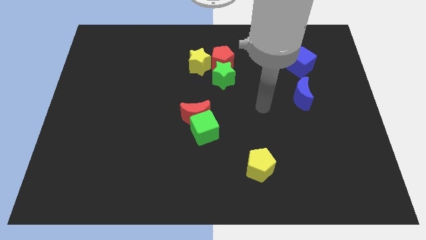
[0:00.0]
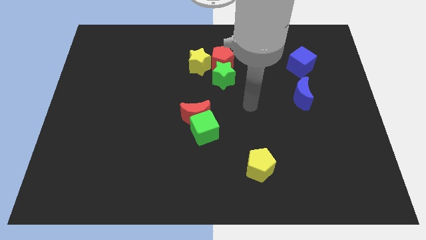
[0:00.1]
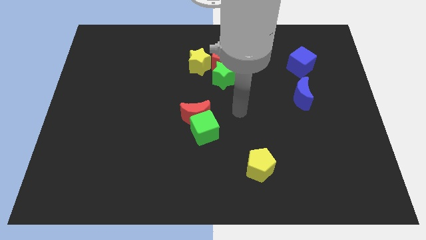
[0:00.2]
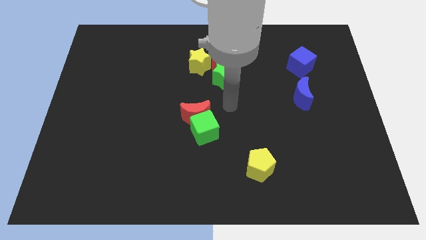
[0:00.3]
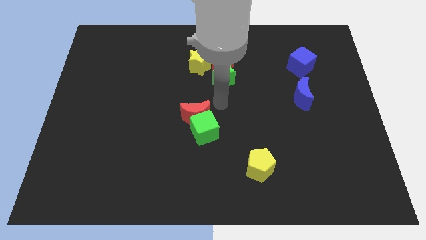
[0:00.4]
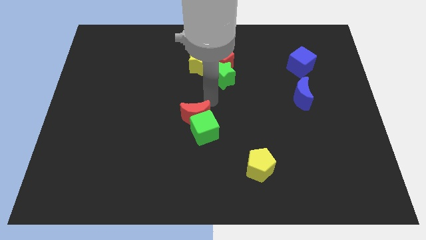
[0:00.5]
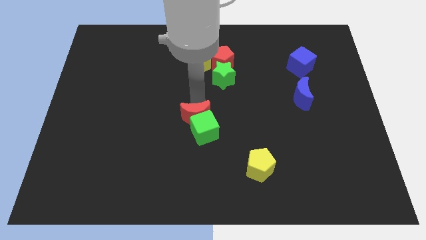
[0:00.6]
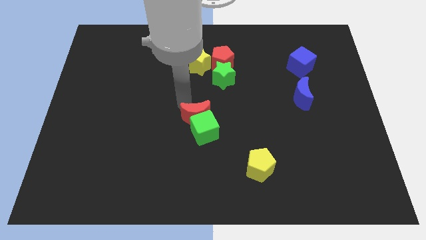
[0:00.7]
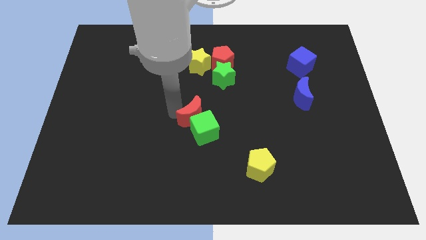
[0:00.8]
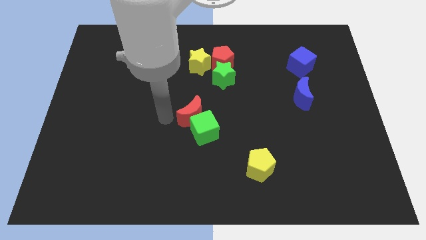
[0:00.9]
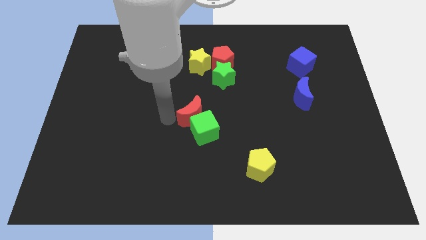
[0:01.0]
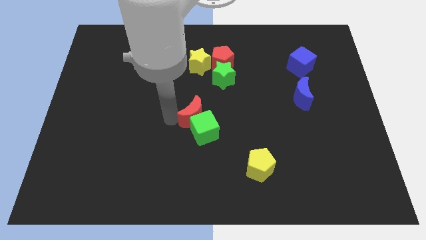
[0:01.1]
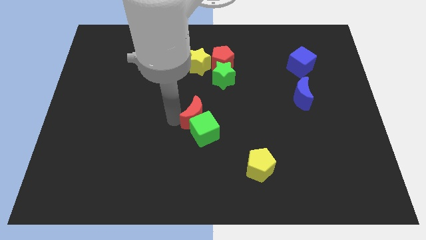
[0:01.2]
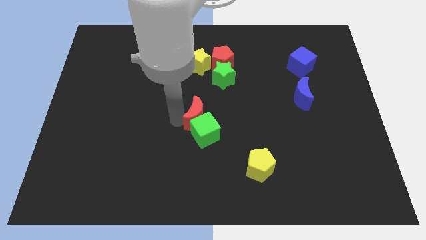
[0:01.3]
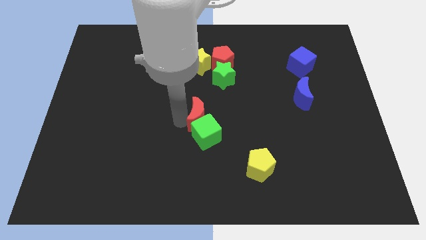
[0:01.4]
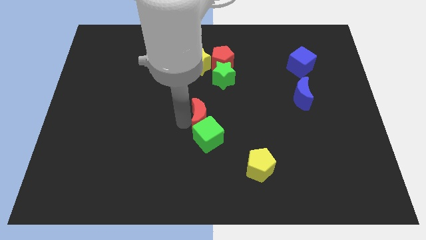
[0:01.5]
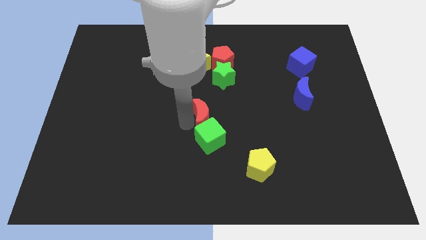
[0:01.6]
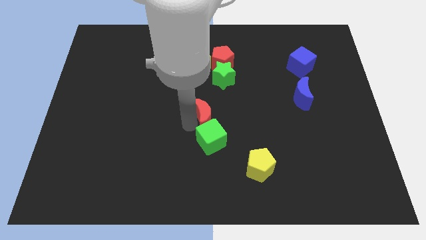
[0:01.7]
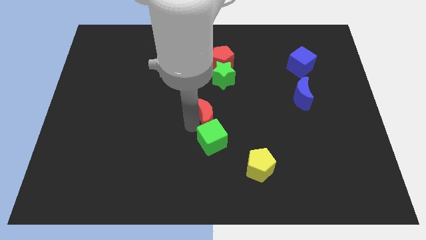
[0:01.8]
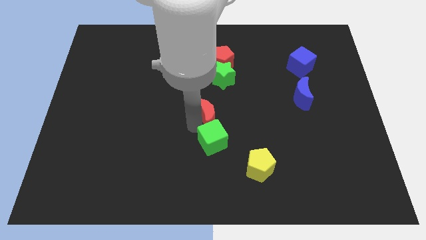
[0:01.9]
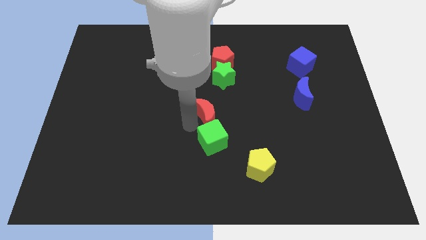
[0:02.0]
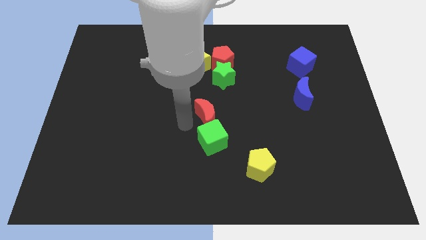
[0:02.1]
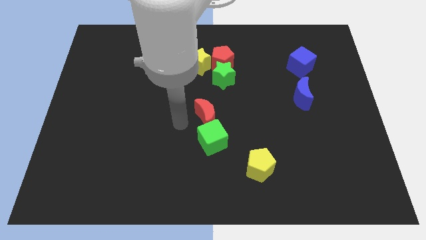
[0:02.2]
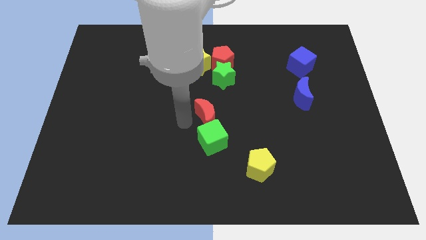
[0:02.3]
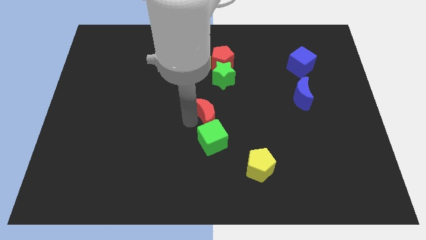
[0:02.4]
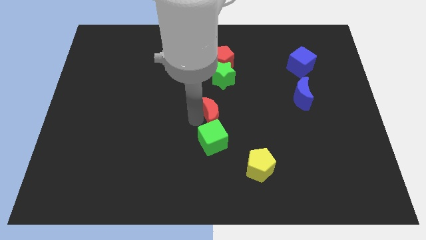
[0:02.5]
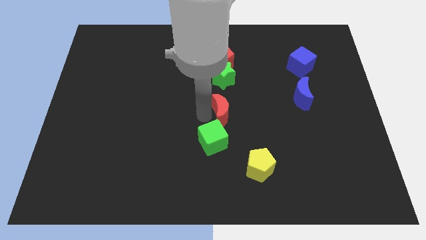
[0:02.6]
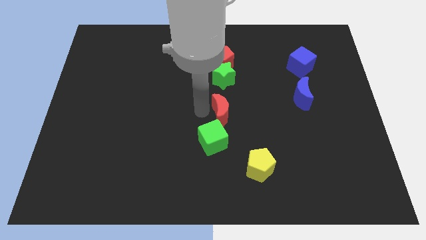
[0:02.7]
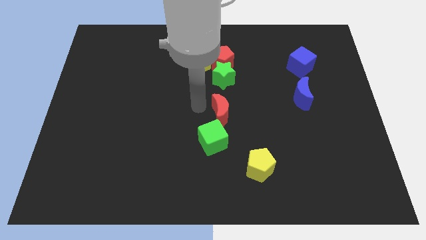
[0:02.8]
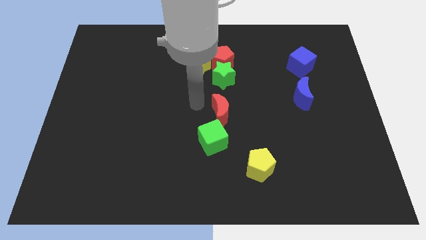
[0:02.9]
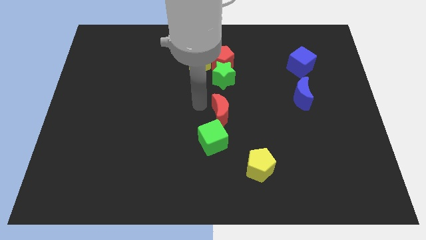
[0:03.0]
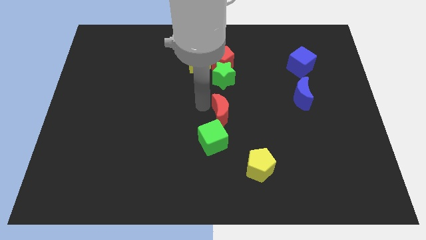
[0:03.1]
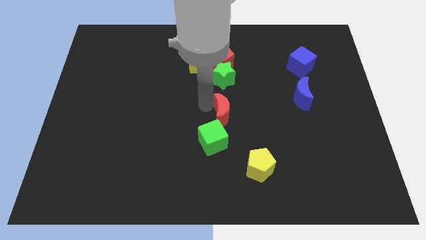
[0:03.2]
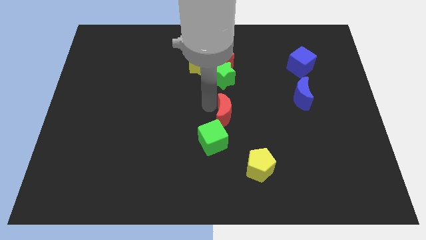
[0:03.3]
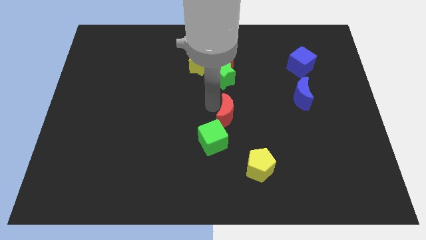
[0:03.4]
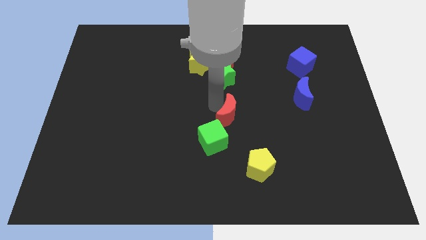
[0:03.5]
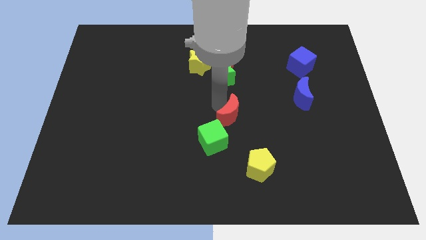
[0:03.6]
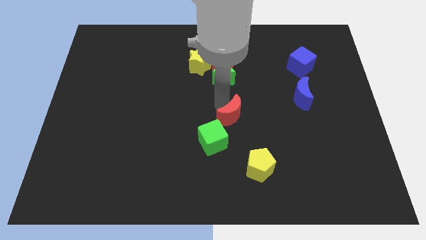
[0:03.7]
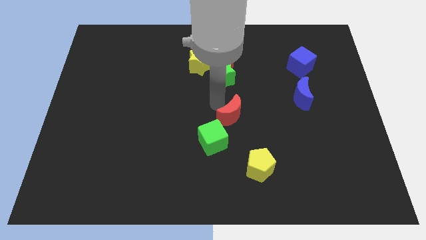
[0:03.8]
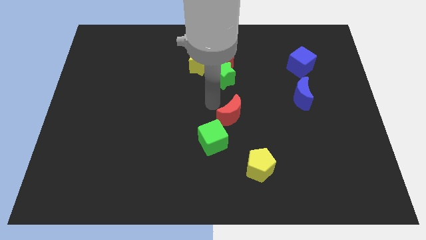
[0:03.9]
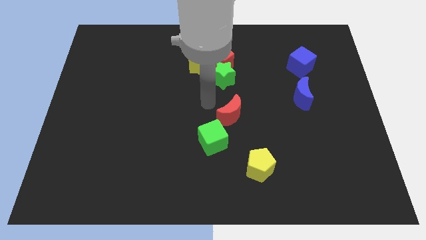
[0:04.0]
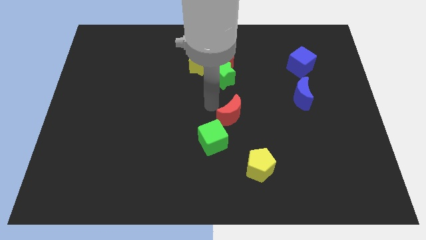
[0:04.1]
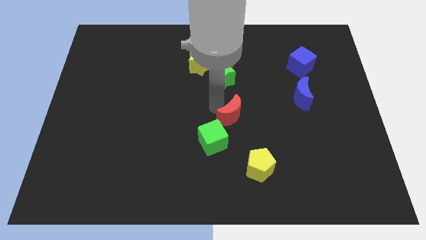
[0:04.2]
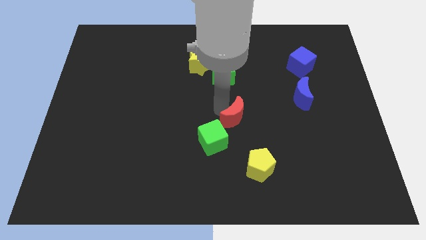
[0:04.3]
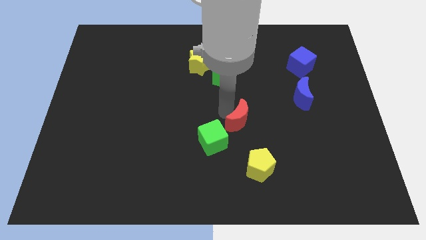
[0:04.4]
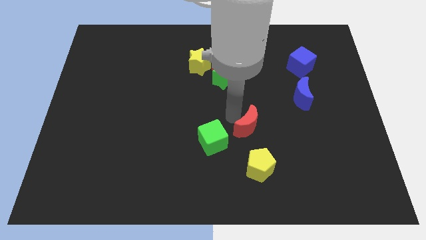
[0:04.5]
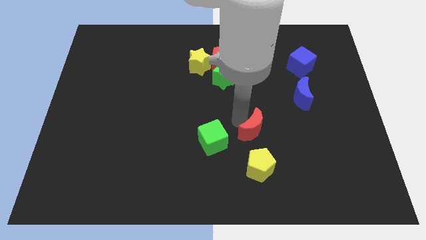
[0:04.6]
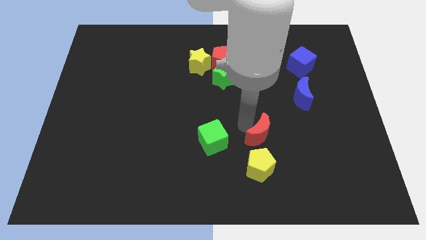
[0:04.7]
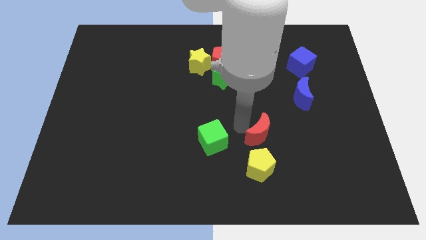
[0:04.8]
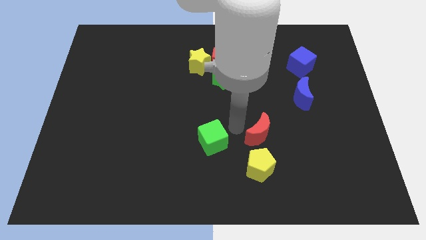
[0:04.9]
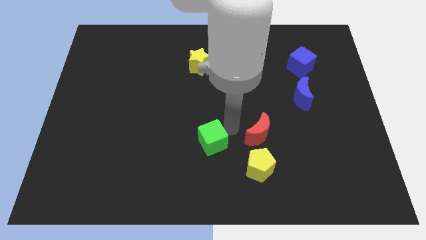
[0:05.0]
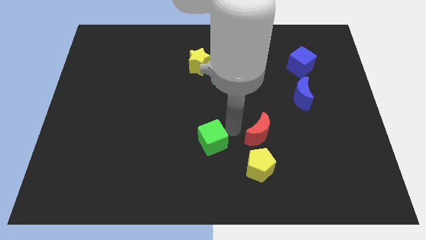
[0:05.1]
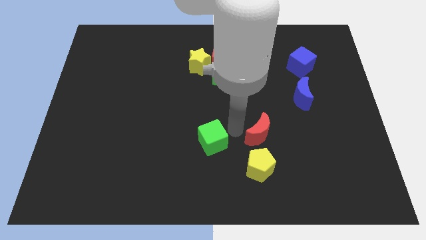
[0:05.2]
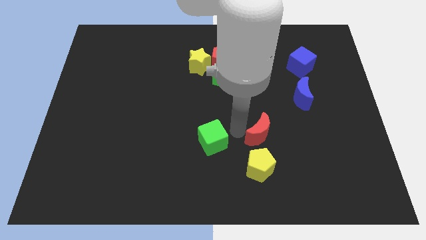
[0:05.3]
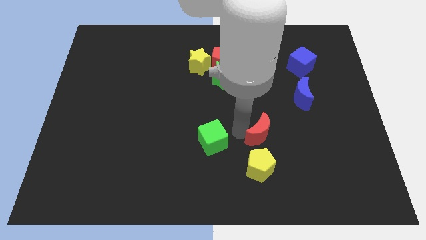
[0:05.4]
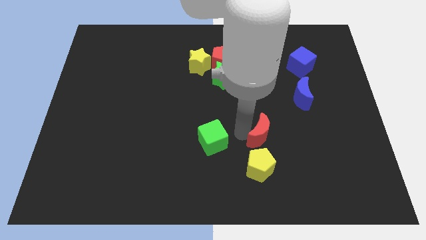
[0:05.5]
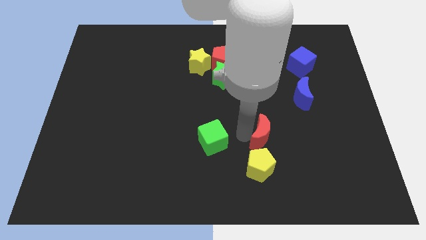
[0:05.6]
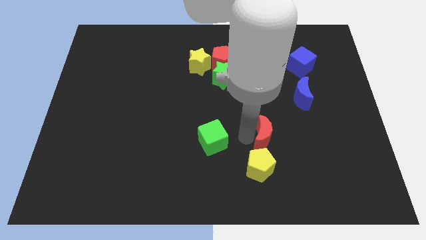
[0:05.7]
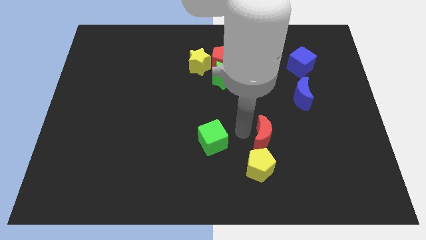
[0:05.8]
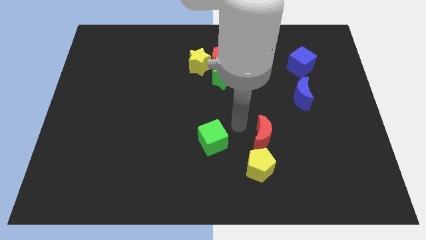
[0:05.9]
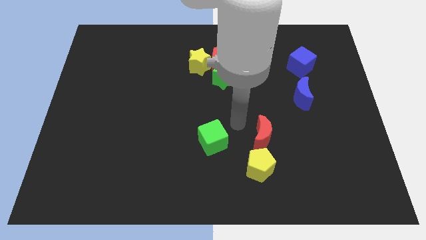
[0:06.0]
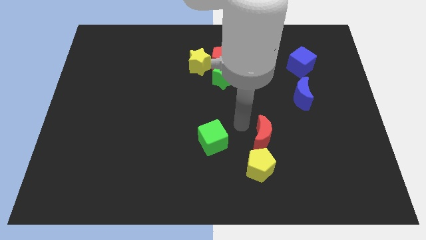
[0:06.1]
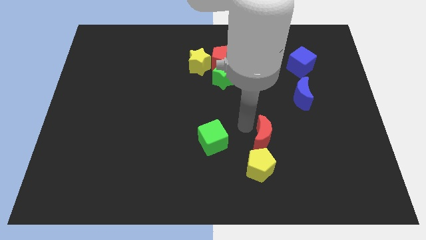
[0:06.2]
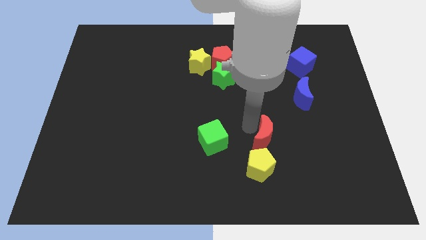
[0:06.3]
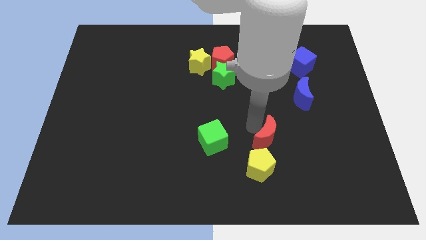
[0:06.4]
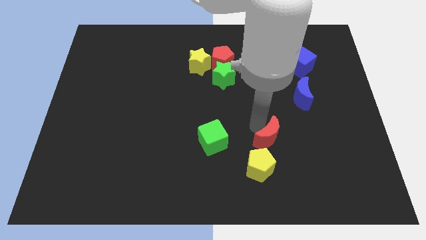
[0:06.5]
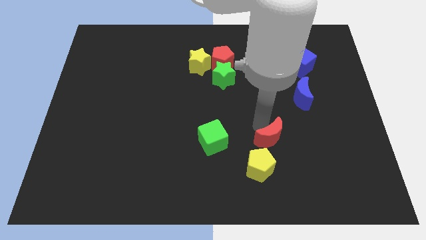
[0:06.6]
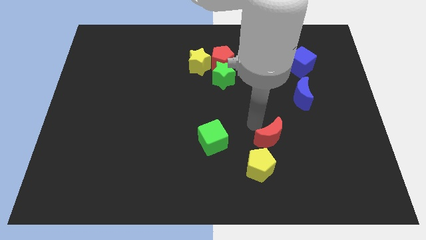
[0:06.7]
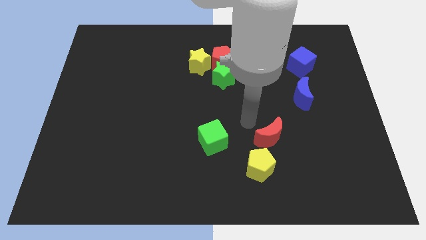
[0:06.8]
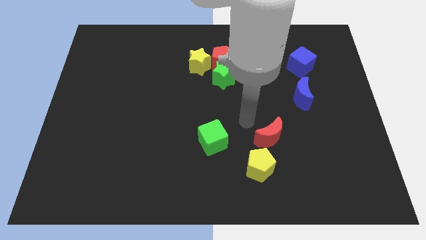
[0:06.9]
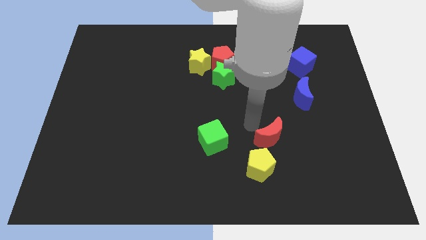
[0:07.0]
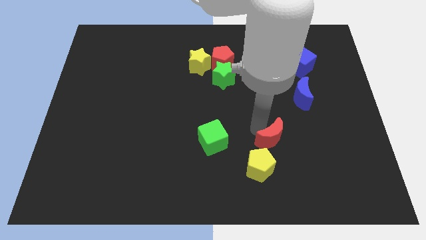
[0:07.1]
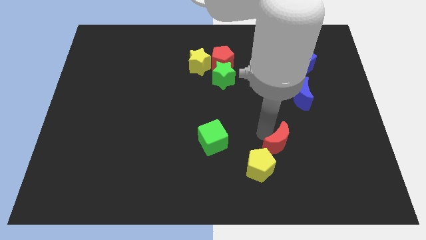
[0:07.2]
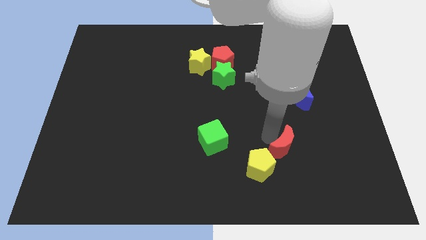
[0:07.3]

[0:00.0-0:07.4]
push the red moon to the right side of the yellow pentagon

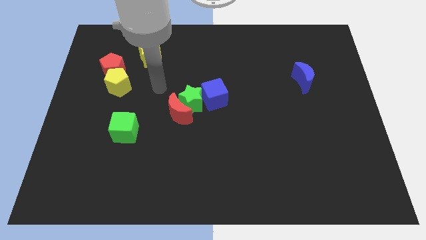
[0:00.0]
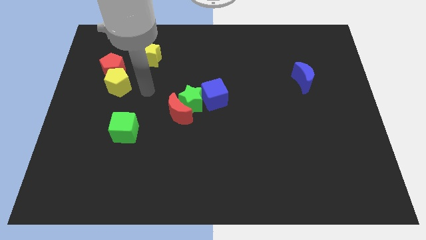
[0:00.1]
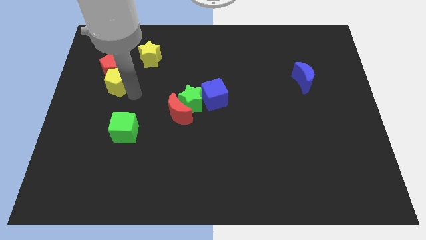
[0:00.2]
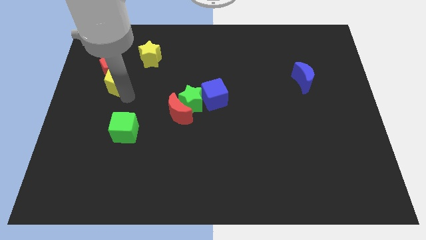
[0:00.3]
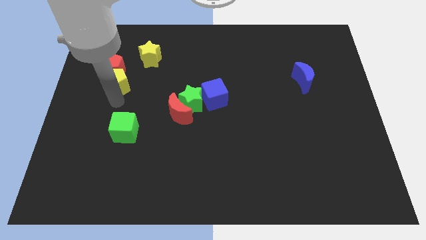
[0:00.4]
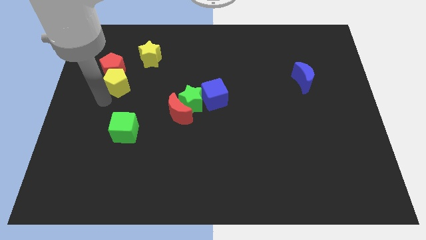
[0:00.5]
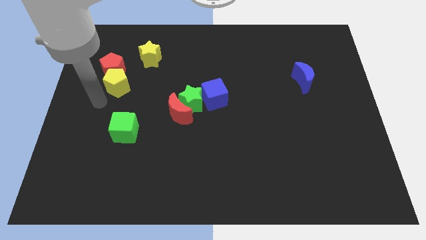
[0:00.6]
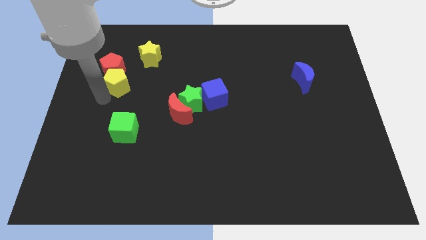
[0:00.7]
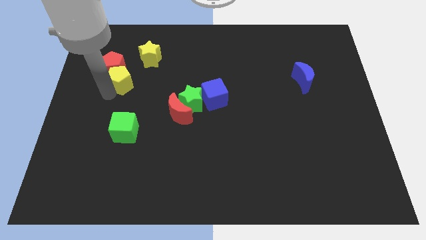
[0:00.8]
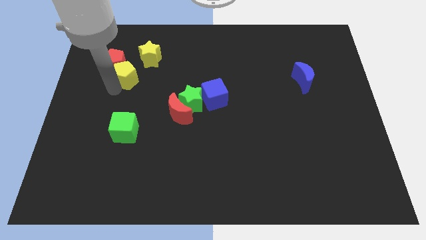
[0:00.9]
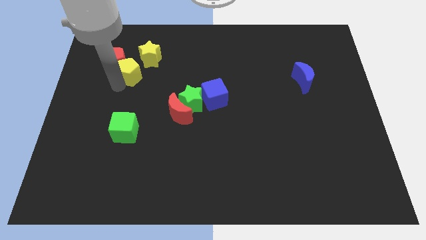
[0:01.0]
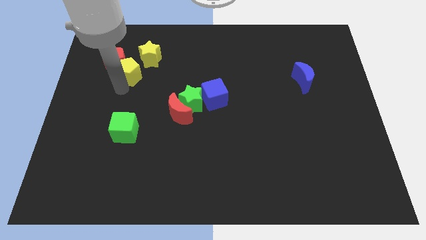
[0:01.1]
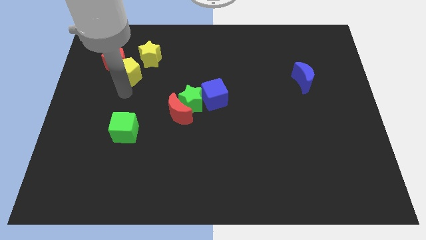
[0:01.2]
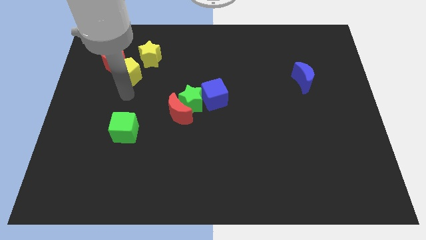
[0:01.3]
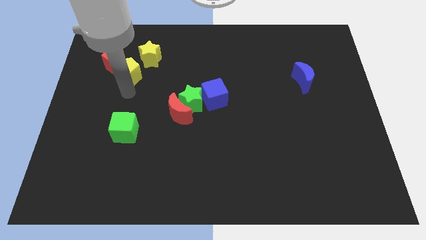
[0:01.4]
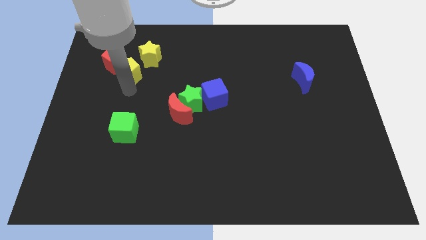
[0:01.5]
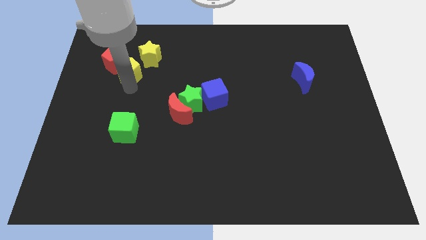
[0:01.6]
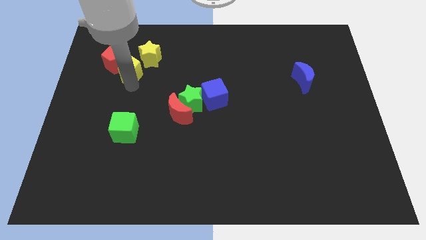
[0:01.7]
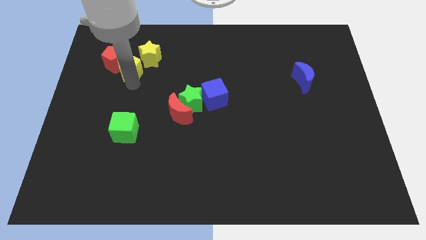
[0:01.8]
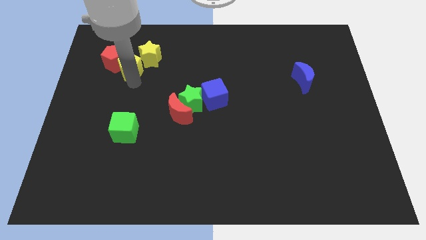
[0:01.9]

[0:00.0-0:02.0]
slide the yellow pentagon just left of the yellow star
